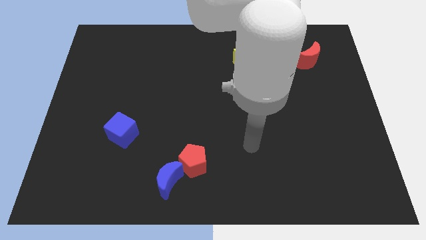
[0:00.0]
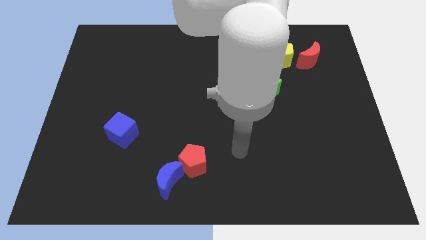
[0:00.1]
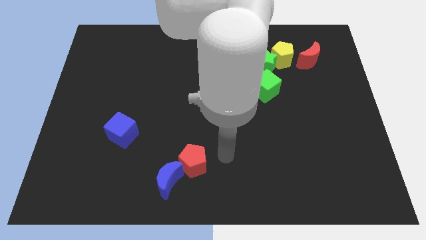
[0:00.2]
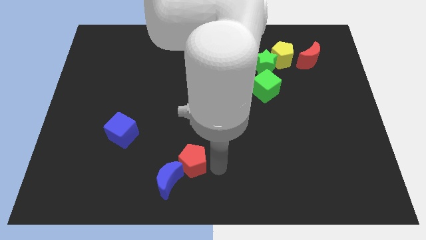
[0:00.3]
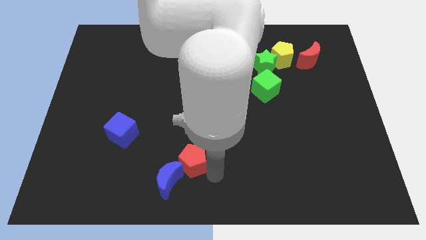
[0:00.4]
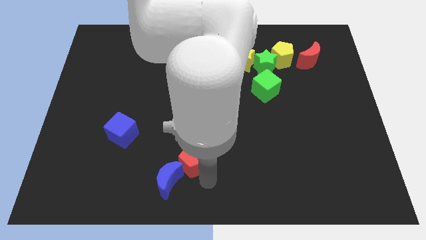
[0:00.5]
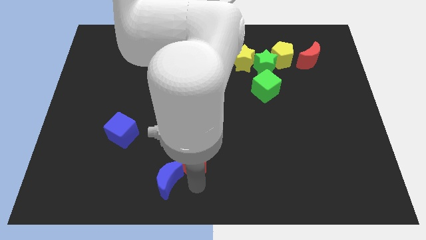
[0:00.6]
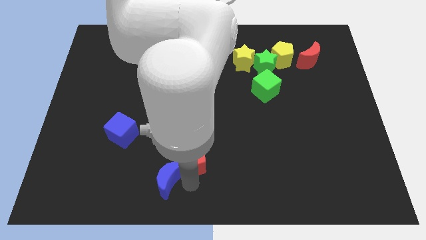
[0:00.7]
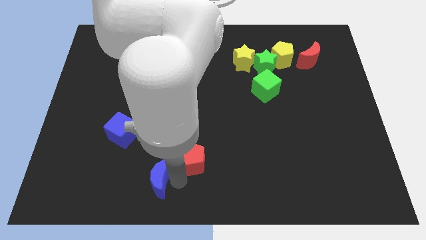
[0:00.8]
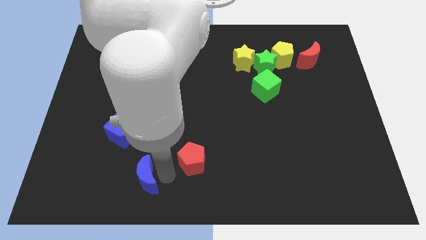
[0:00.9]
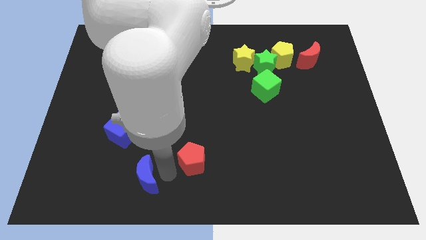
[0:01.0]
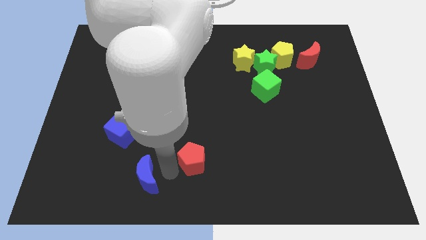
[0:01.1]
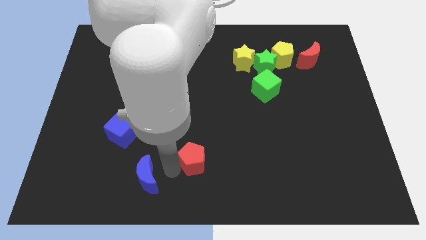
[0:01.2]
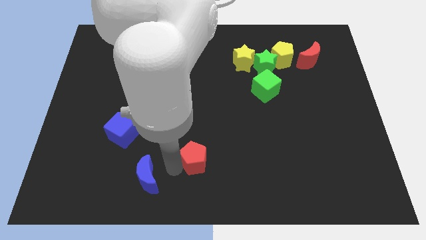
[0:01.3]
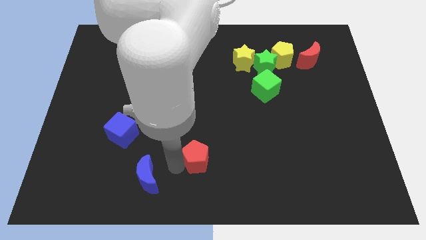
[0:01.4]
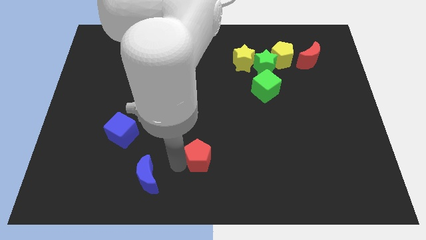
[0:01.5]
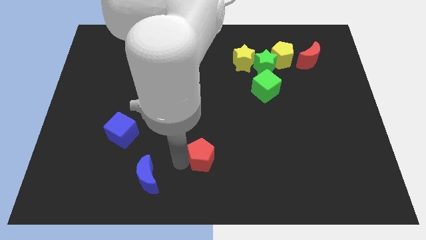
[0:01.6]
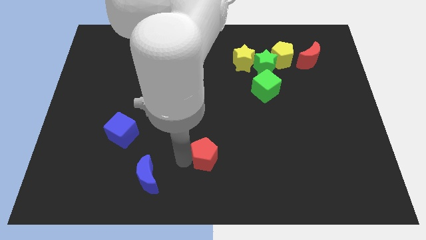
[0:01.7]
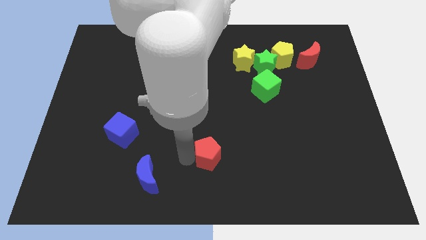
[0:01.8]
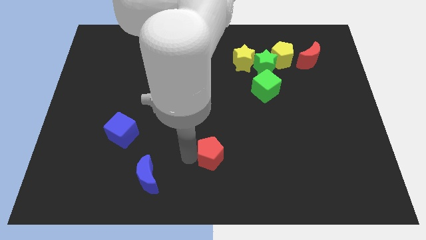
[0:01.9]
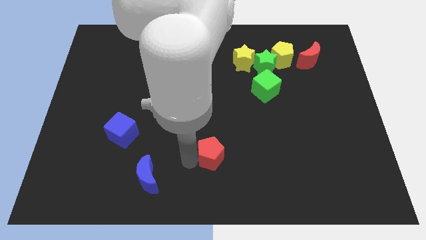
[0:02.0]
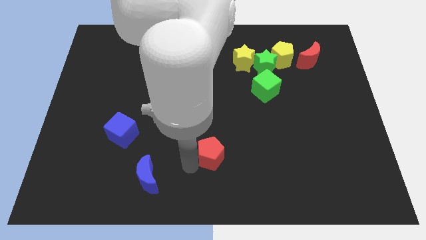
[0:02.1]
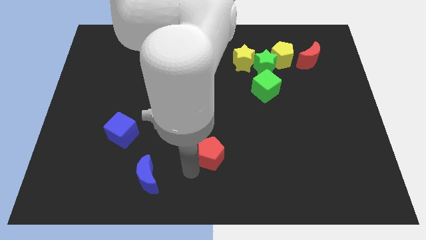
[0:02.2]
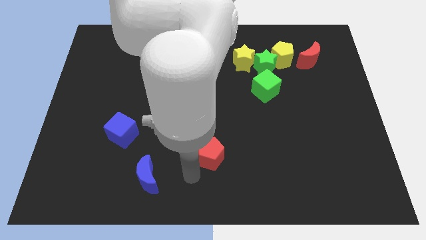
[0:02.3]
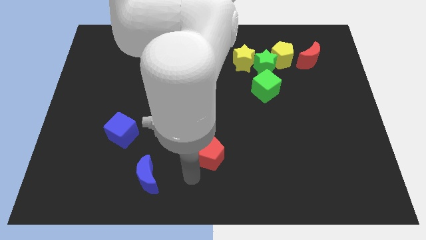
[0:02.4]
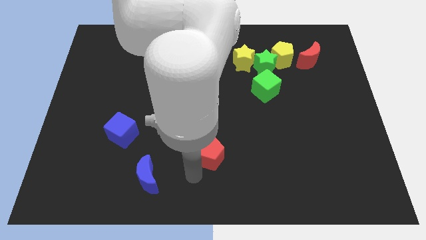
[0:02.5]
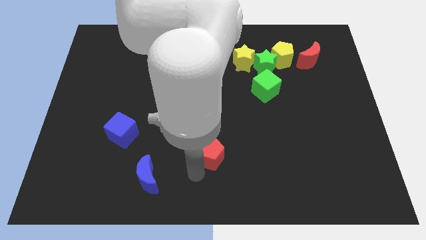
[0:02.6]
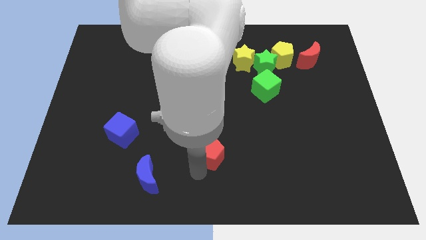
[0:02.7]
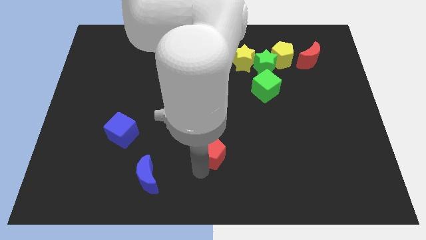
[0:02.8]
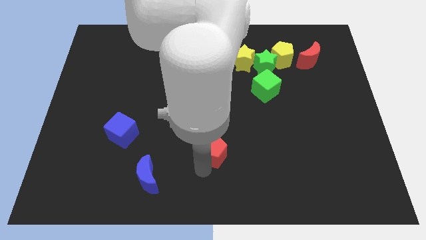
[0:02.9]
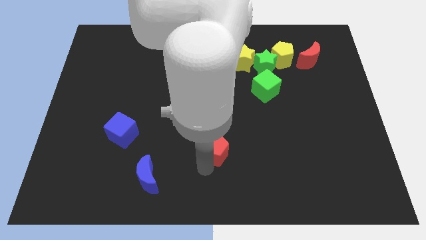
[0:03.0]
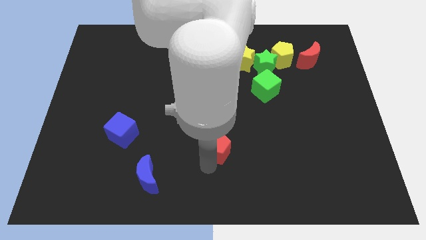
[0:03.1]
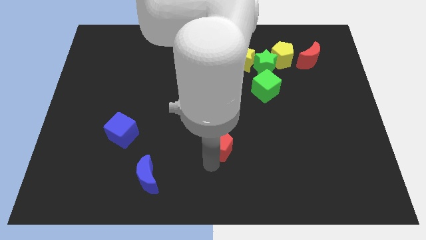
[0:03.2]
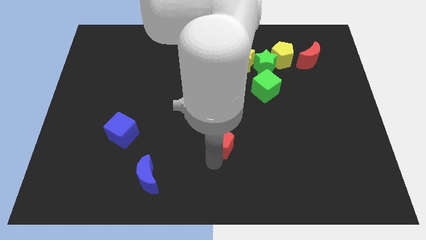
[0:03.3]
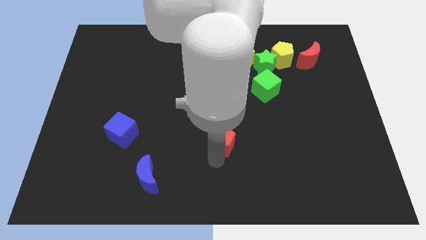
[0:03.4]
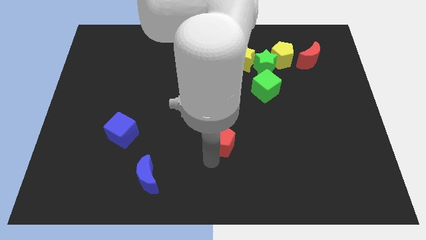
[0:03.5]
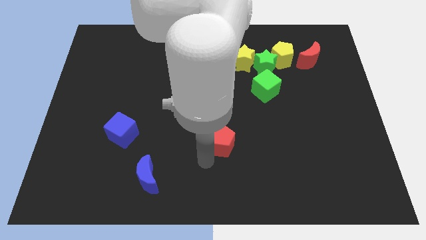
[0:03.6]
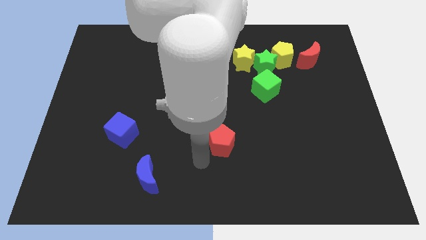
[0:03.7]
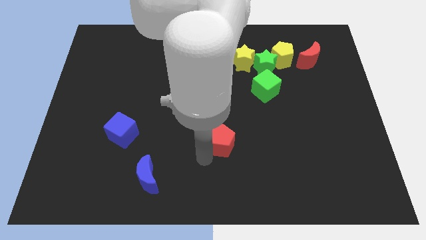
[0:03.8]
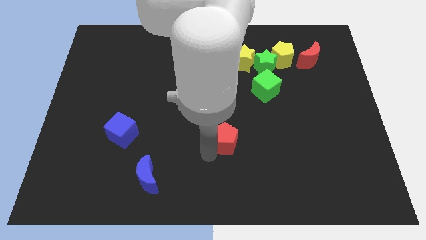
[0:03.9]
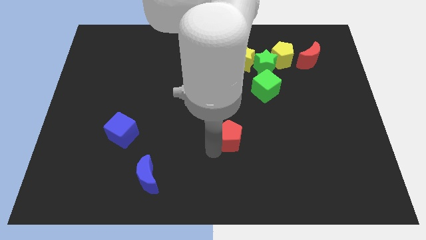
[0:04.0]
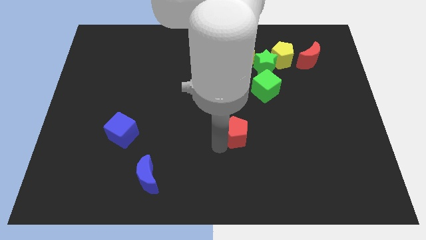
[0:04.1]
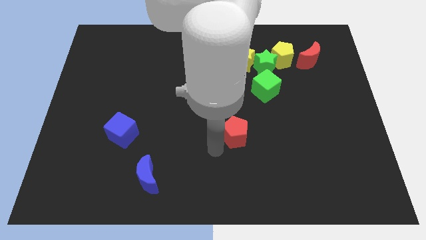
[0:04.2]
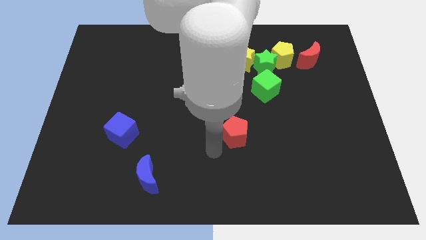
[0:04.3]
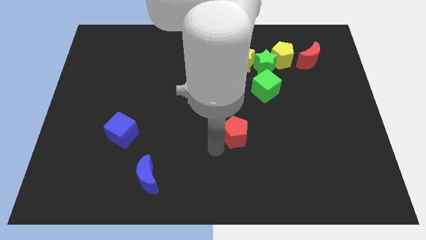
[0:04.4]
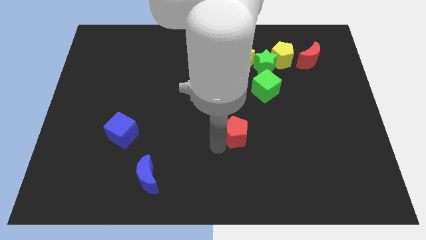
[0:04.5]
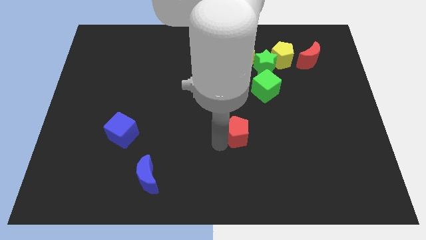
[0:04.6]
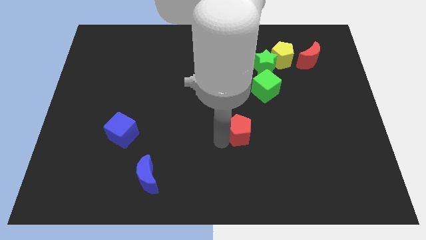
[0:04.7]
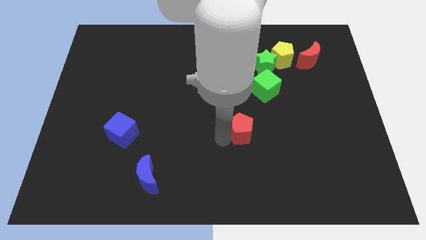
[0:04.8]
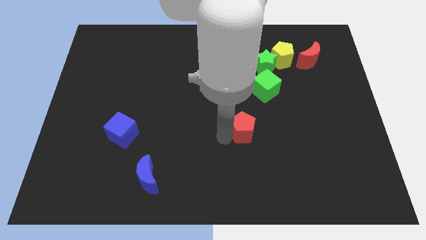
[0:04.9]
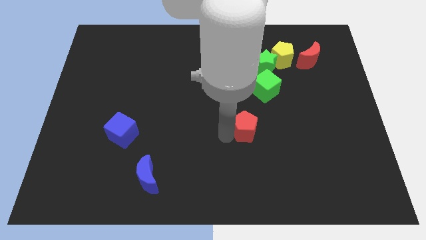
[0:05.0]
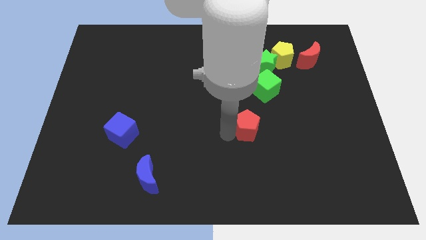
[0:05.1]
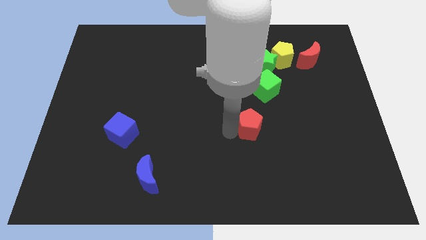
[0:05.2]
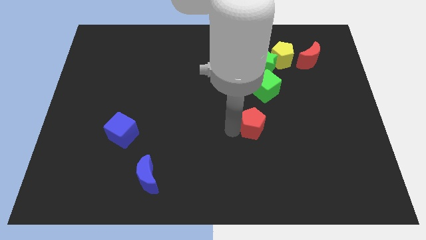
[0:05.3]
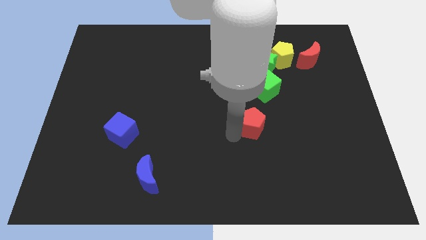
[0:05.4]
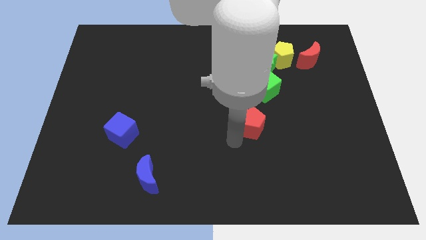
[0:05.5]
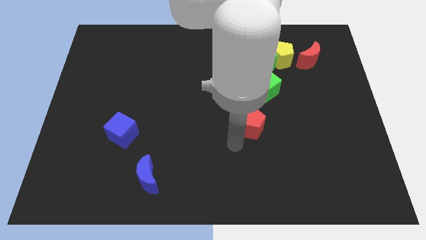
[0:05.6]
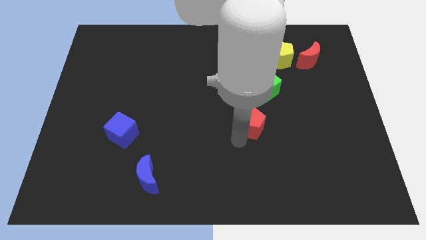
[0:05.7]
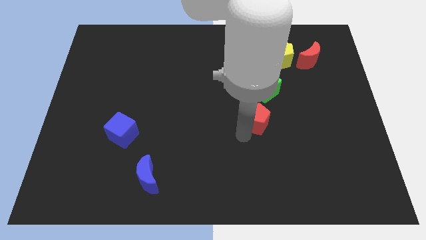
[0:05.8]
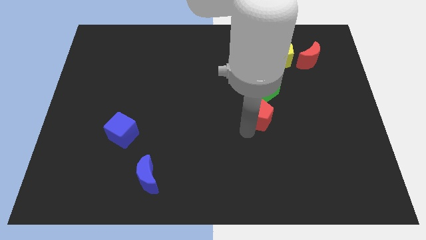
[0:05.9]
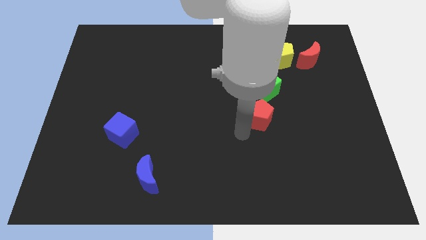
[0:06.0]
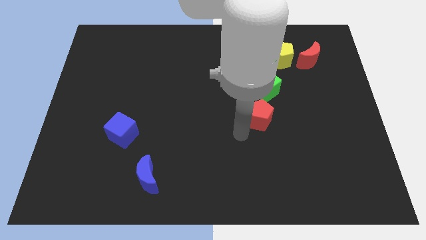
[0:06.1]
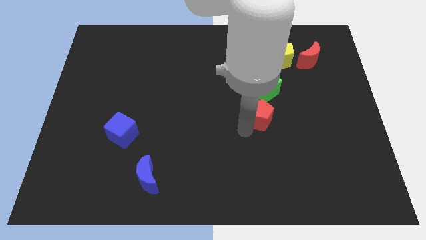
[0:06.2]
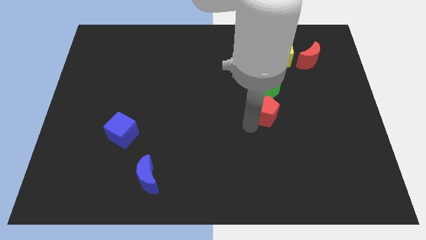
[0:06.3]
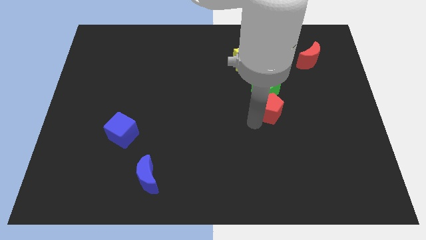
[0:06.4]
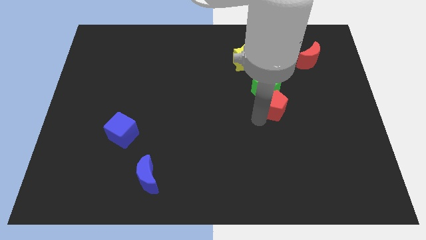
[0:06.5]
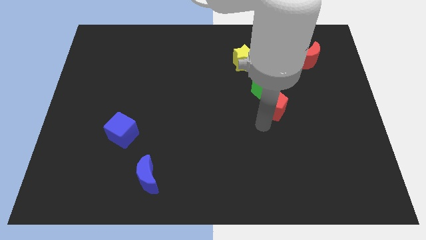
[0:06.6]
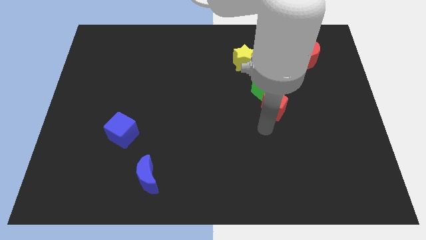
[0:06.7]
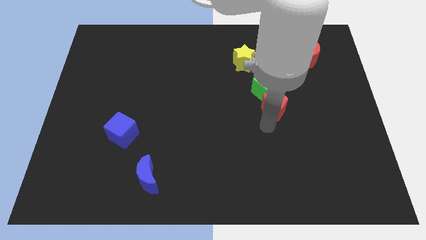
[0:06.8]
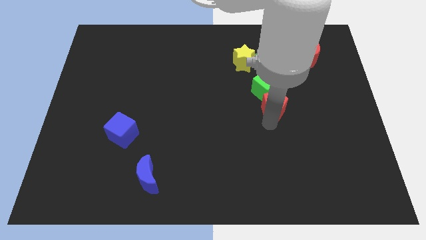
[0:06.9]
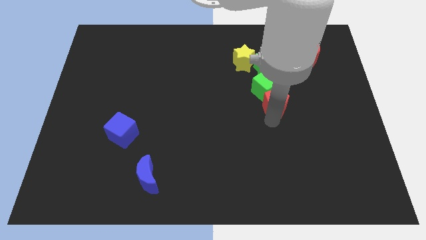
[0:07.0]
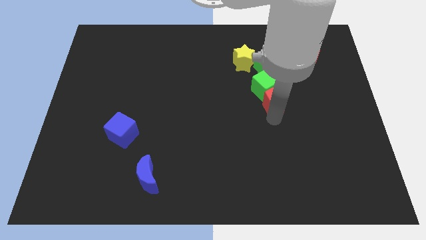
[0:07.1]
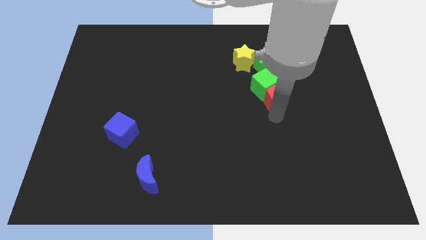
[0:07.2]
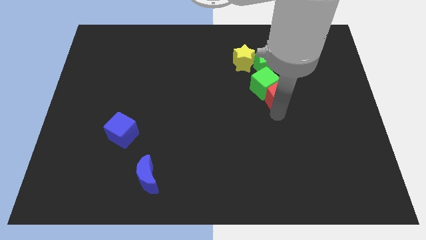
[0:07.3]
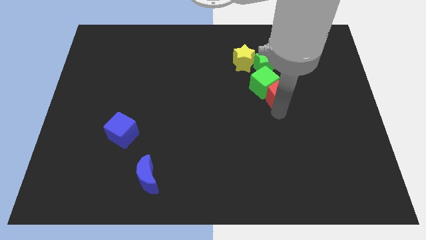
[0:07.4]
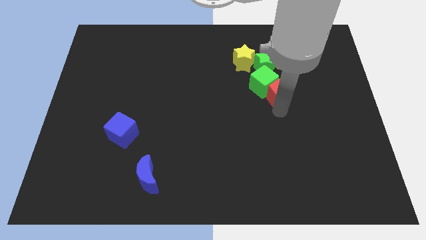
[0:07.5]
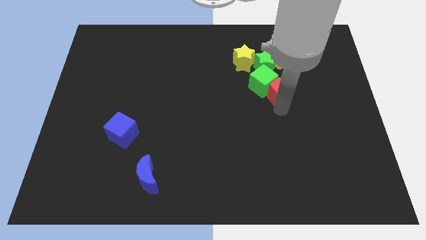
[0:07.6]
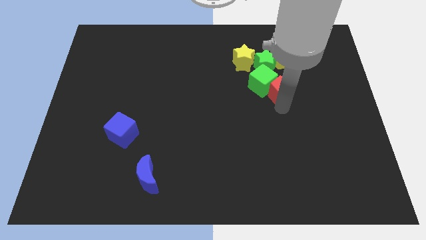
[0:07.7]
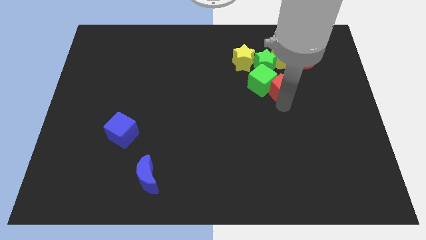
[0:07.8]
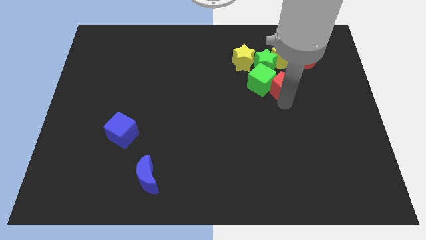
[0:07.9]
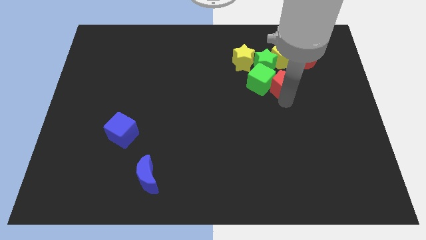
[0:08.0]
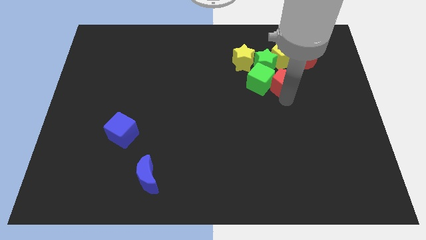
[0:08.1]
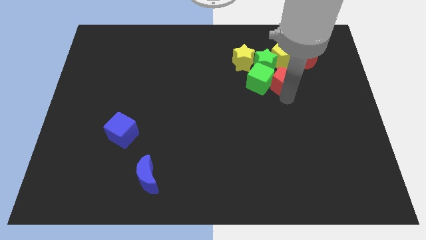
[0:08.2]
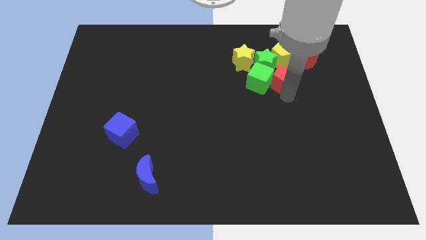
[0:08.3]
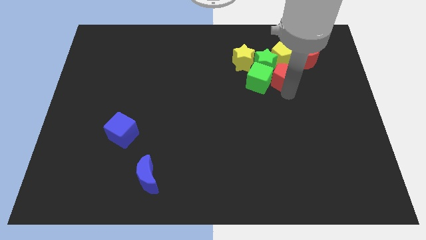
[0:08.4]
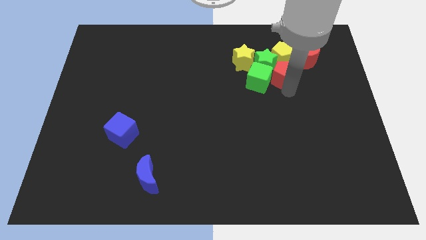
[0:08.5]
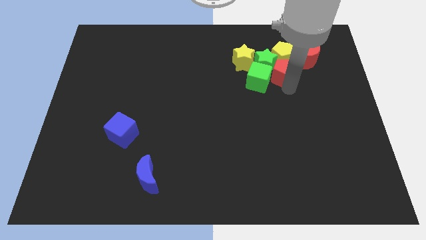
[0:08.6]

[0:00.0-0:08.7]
move the red pentagon towards the yellow pentagon
